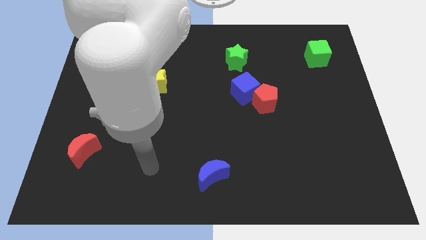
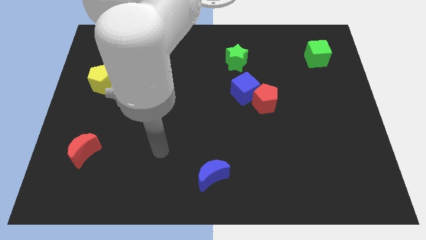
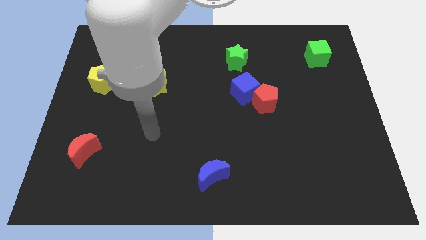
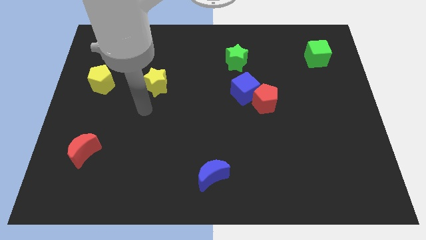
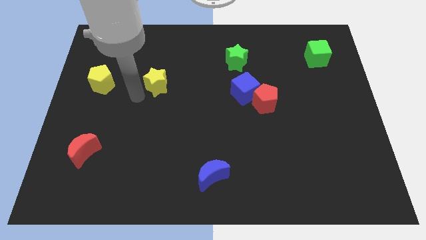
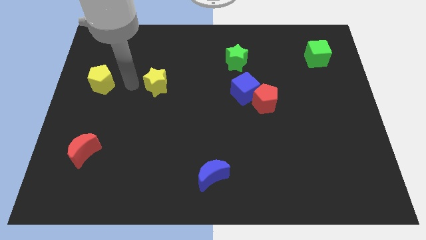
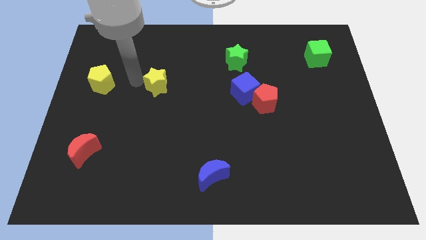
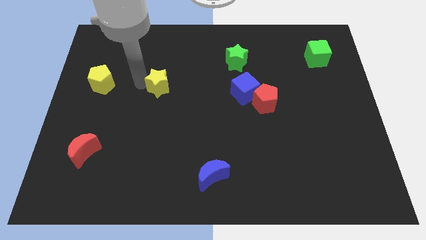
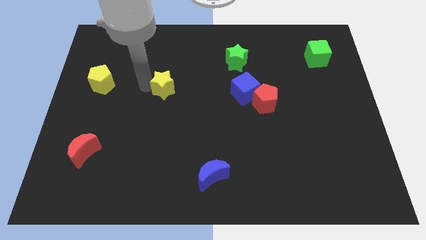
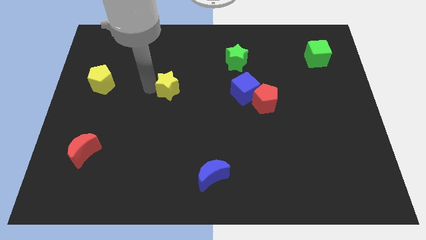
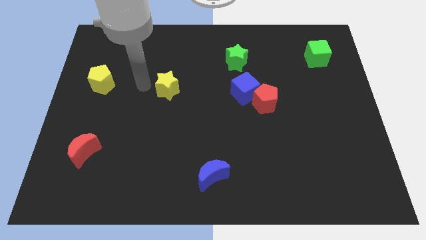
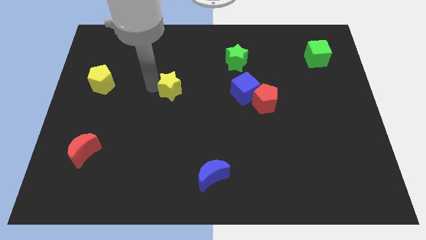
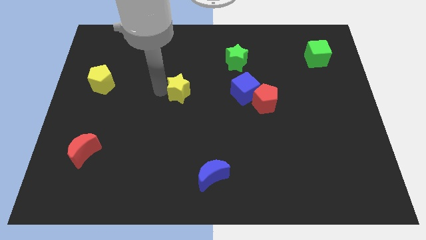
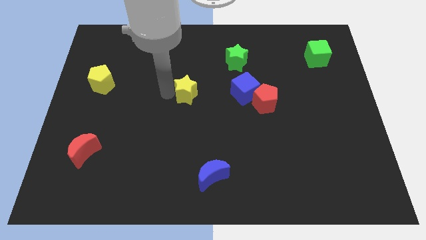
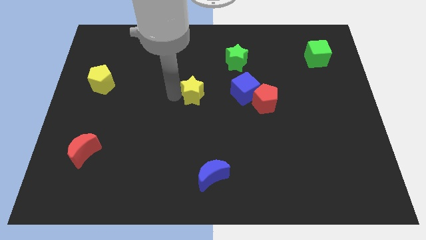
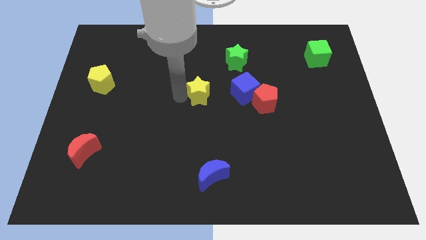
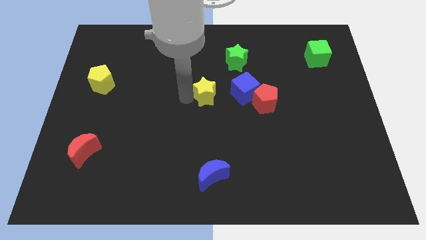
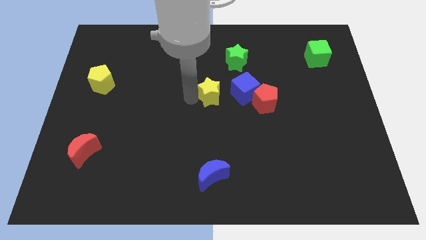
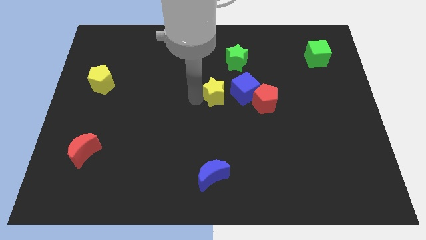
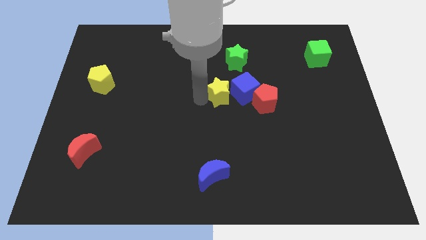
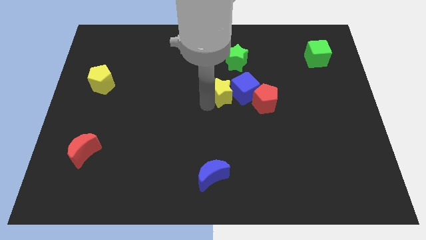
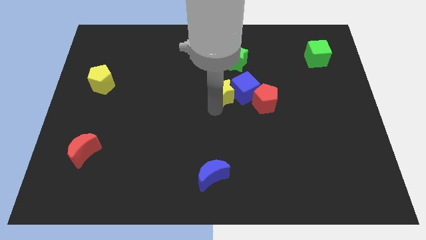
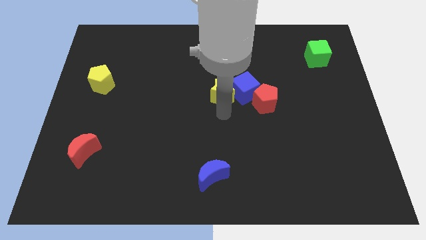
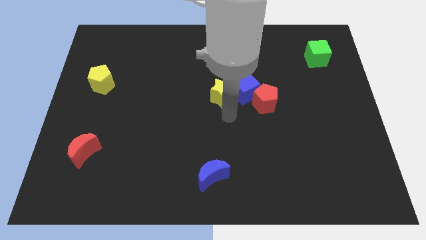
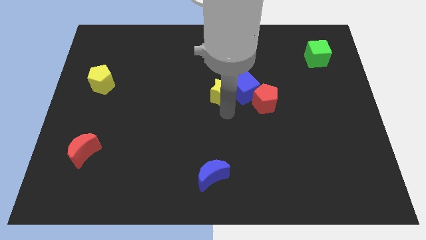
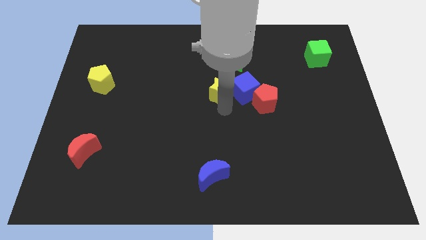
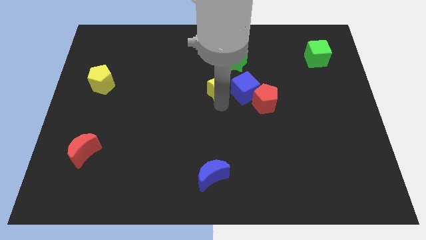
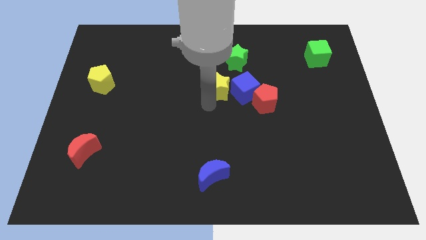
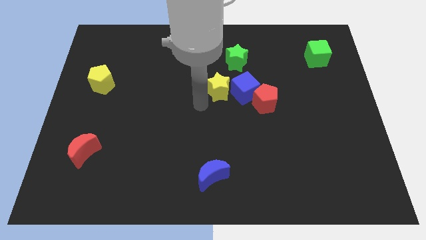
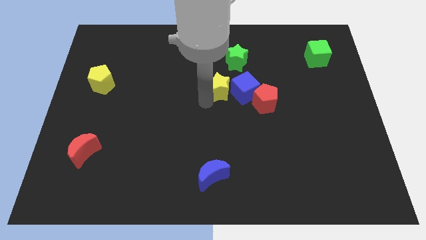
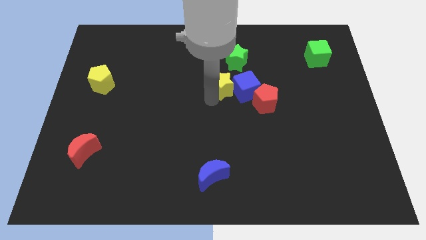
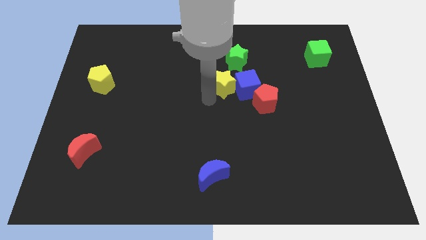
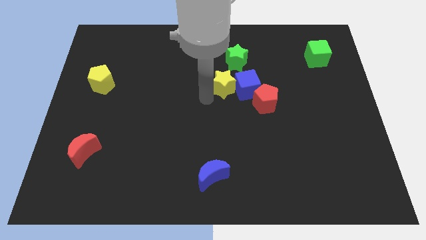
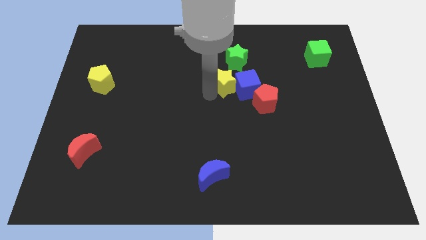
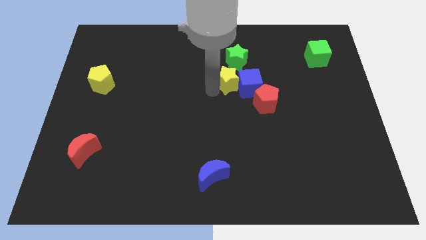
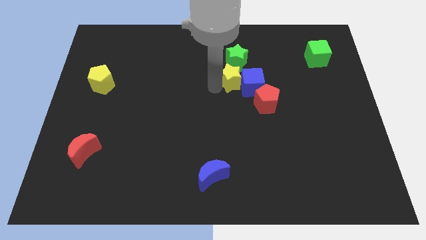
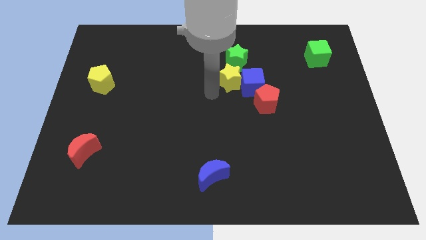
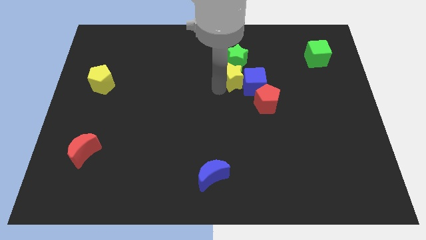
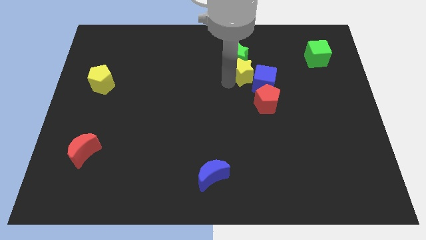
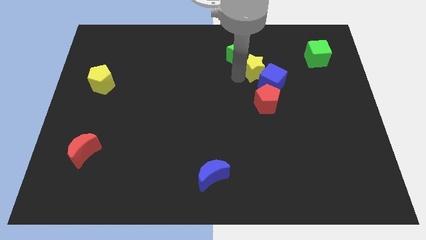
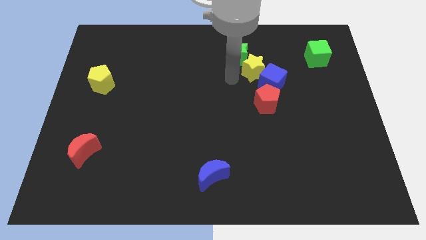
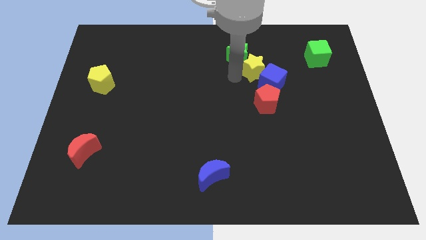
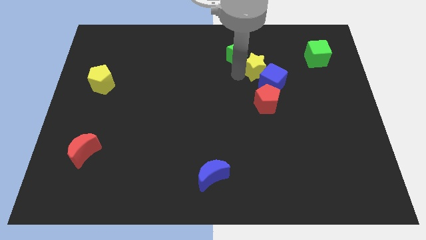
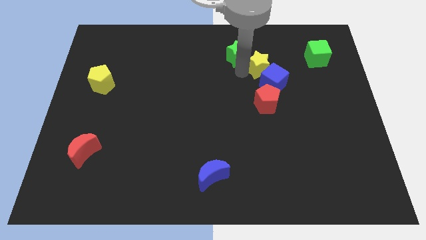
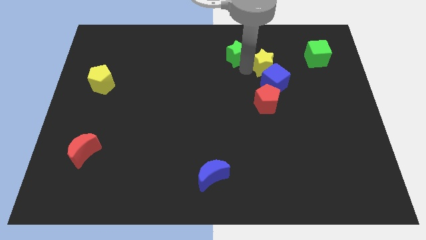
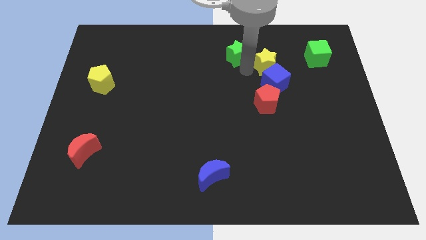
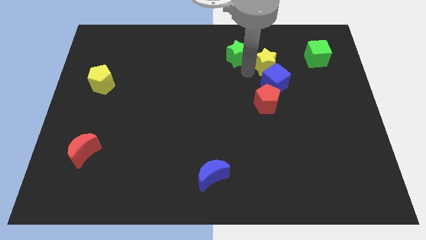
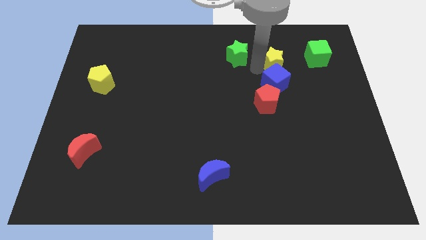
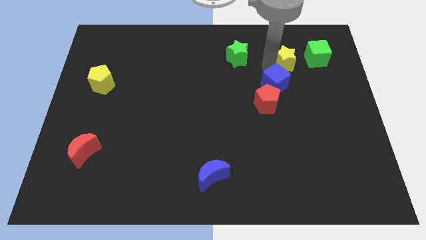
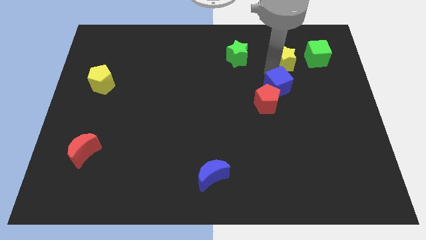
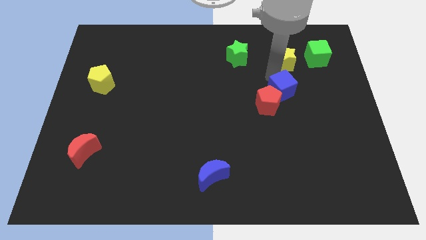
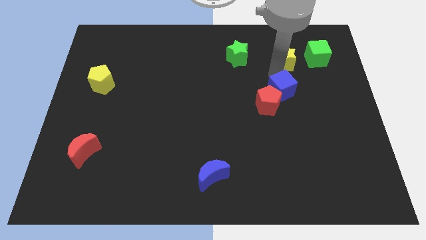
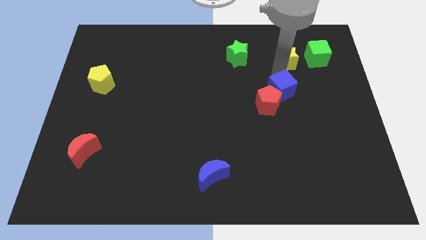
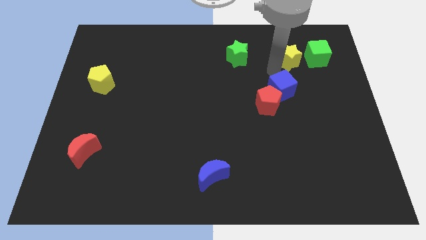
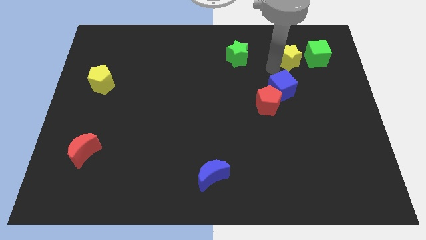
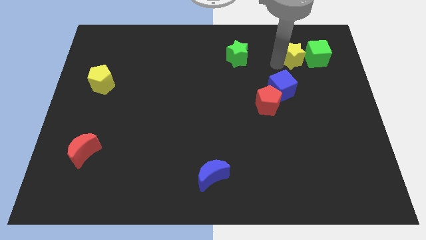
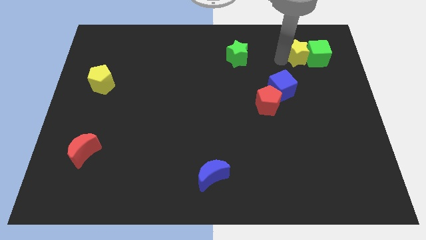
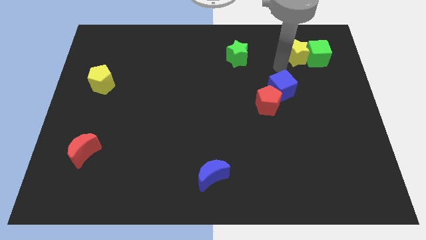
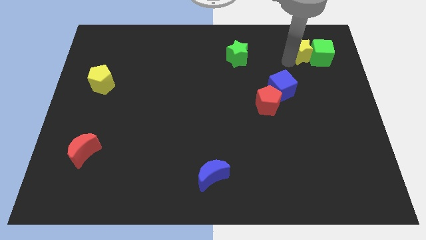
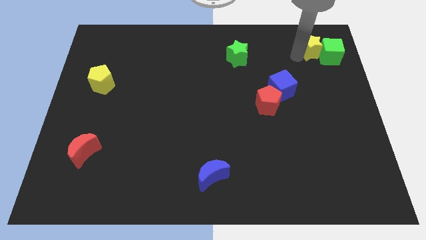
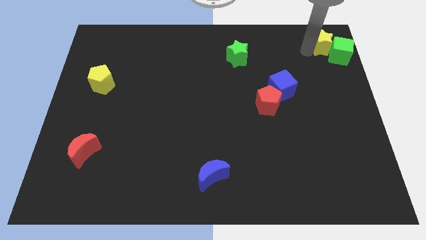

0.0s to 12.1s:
slide the yellow star to the top right
